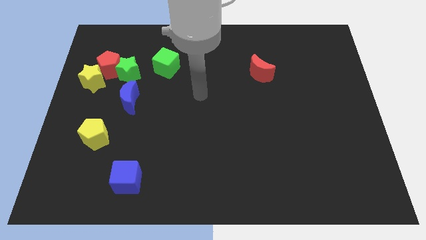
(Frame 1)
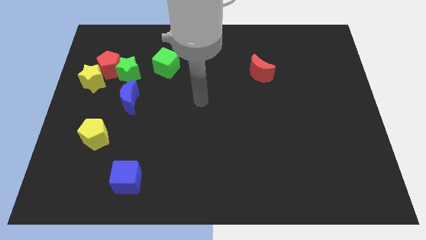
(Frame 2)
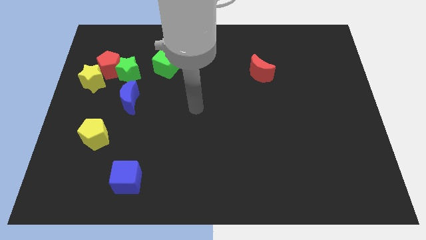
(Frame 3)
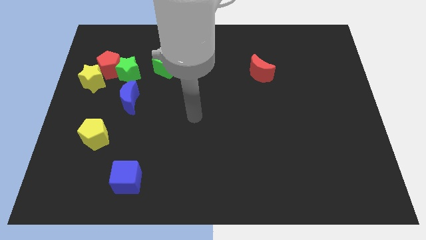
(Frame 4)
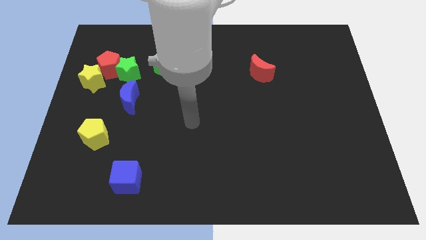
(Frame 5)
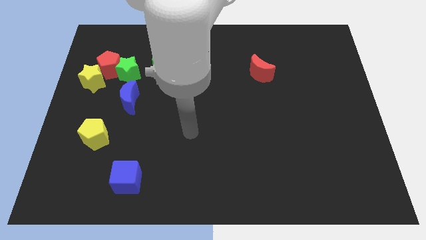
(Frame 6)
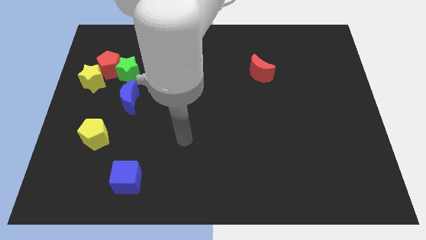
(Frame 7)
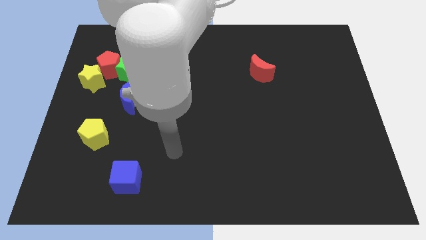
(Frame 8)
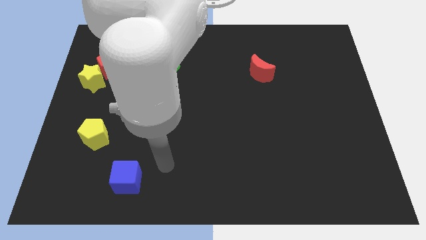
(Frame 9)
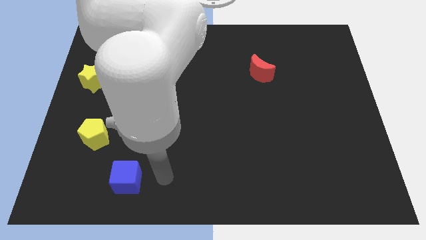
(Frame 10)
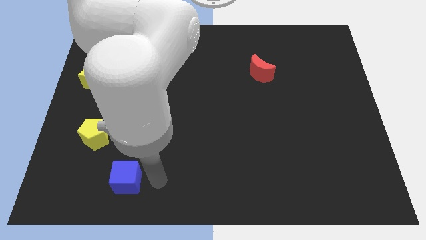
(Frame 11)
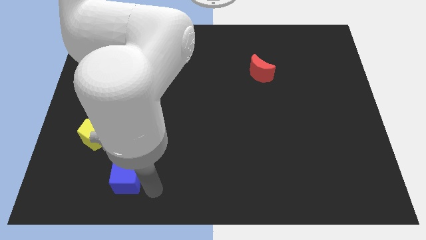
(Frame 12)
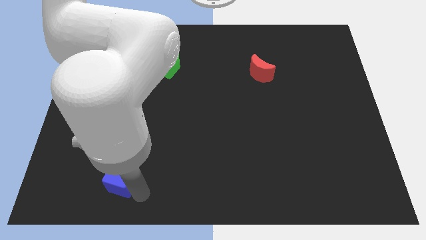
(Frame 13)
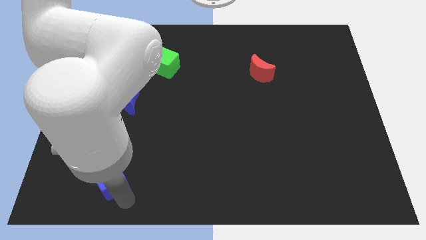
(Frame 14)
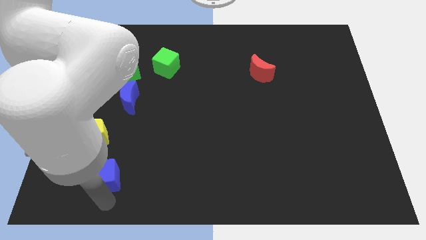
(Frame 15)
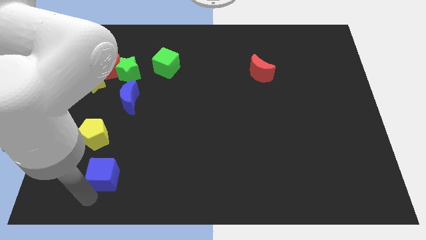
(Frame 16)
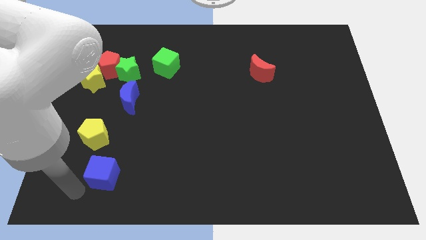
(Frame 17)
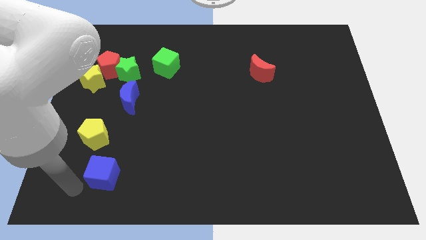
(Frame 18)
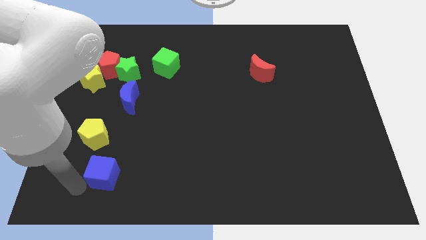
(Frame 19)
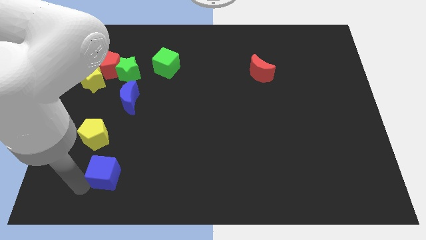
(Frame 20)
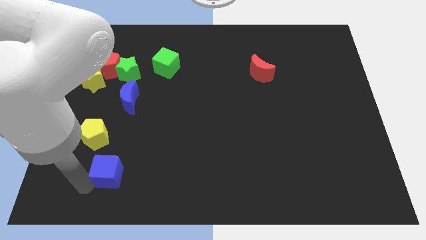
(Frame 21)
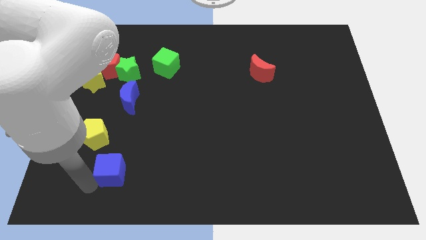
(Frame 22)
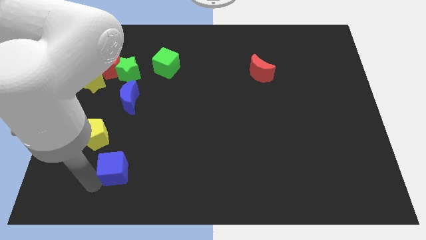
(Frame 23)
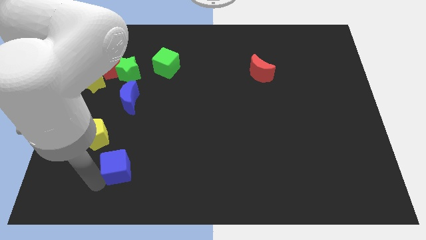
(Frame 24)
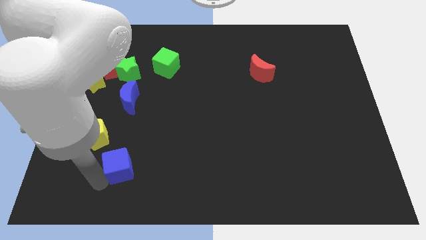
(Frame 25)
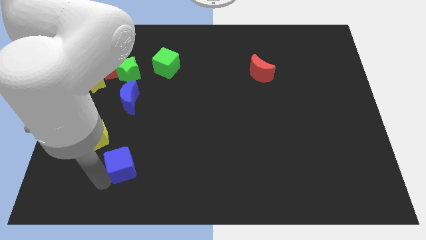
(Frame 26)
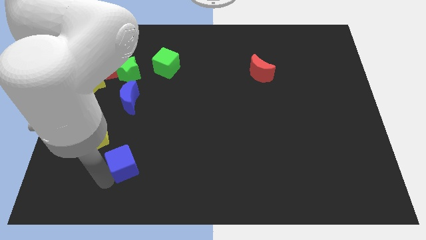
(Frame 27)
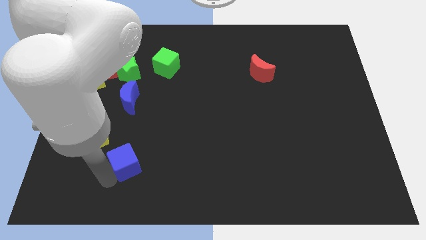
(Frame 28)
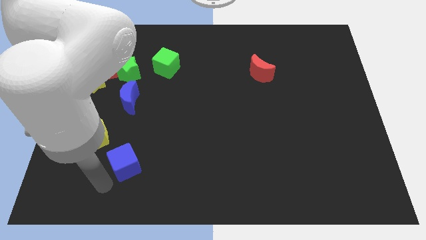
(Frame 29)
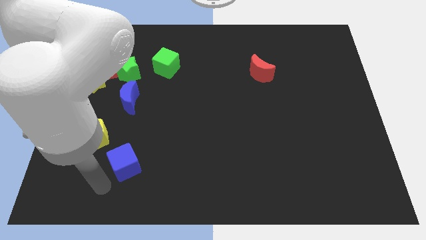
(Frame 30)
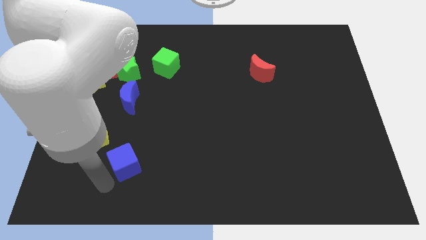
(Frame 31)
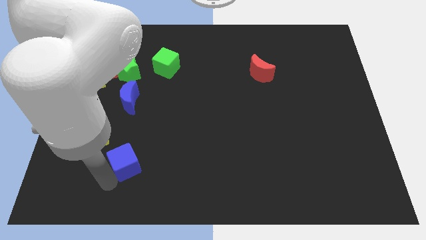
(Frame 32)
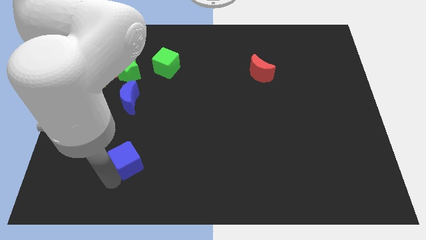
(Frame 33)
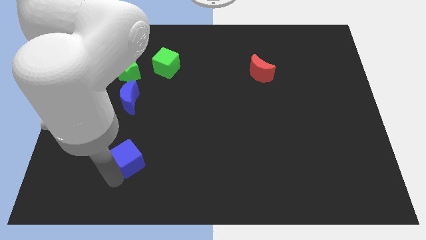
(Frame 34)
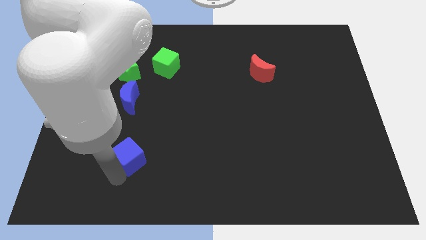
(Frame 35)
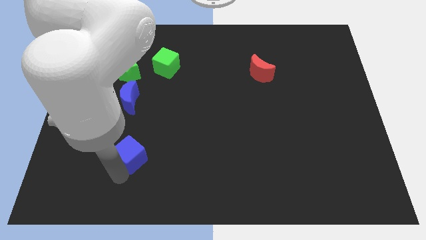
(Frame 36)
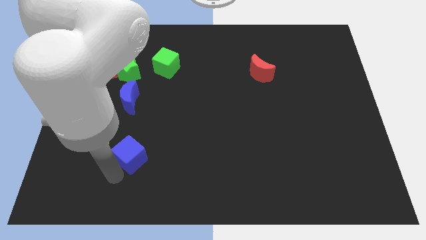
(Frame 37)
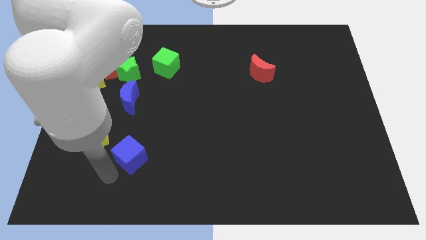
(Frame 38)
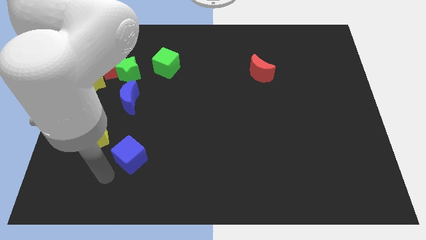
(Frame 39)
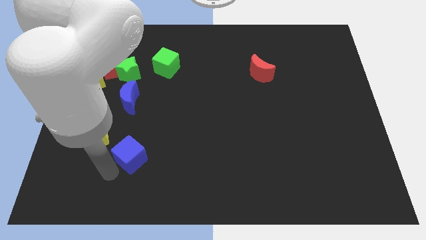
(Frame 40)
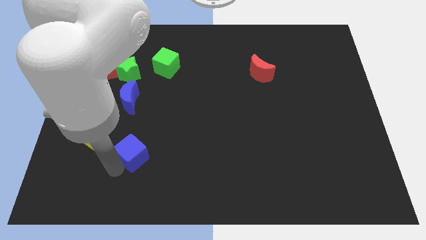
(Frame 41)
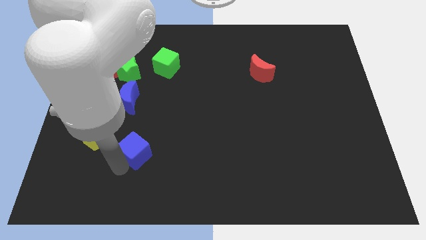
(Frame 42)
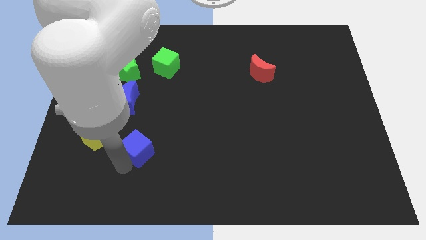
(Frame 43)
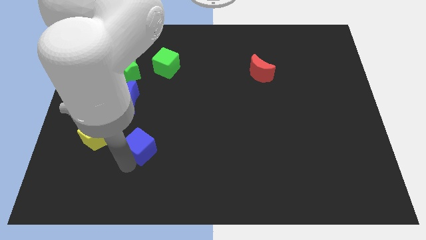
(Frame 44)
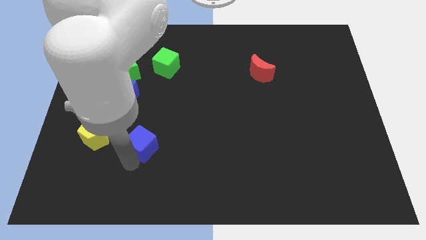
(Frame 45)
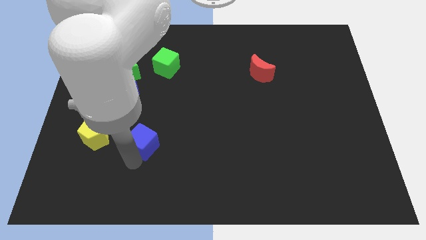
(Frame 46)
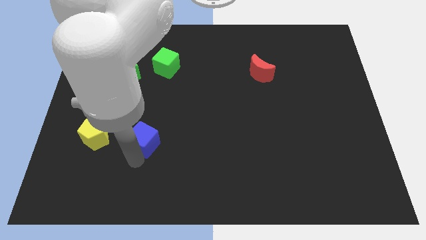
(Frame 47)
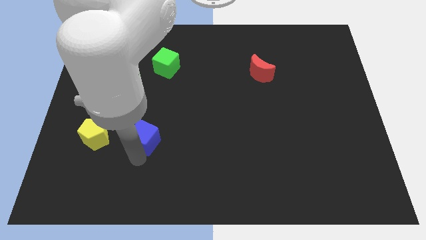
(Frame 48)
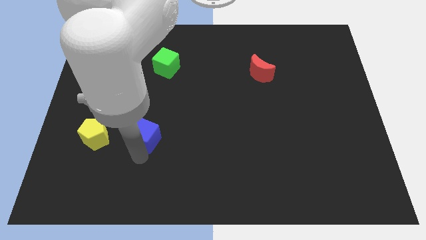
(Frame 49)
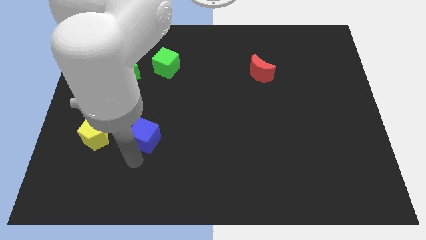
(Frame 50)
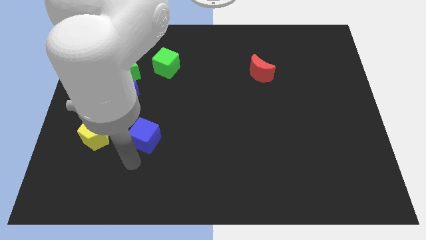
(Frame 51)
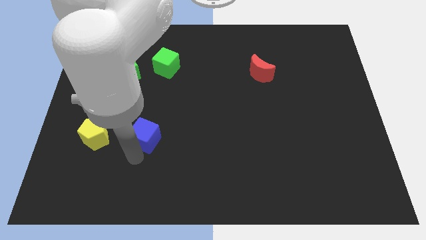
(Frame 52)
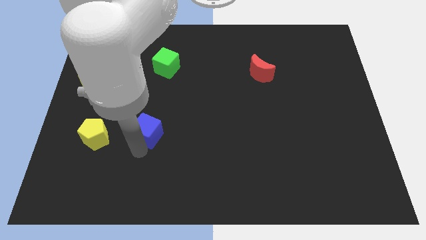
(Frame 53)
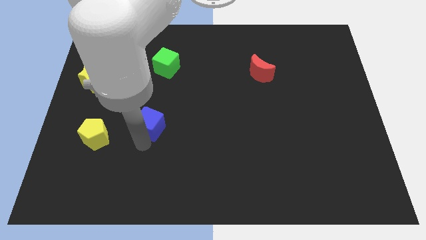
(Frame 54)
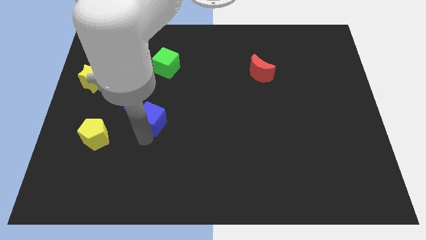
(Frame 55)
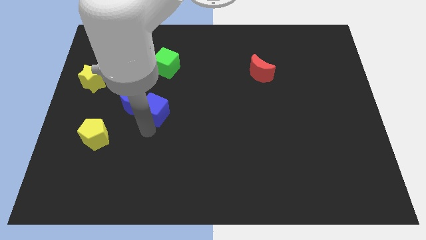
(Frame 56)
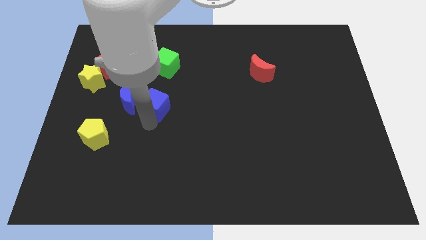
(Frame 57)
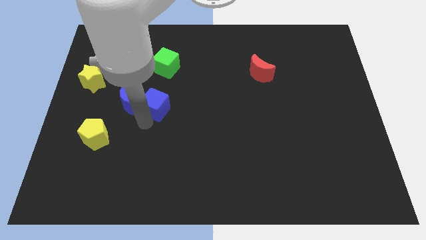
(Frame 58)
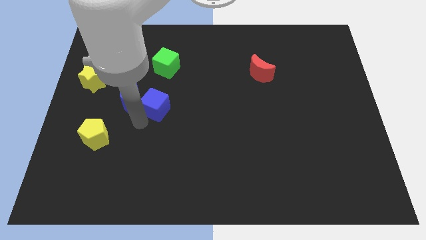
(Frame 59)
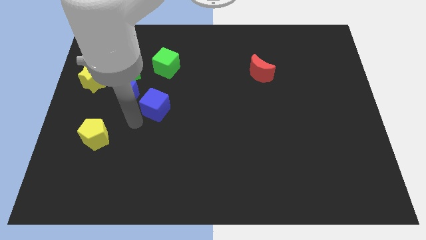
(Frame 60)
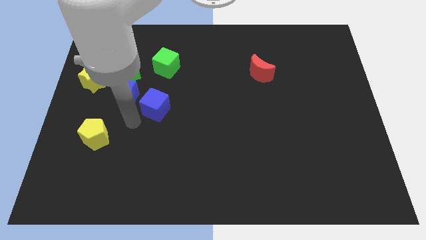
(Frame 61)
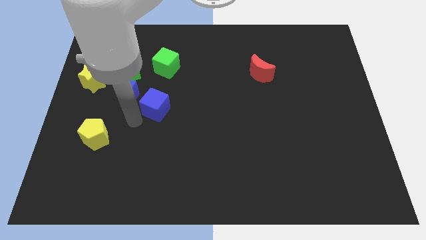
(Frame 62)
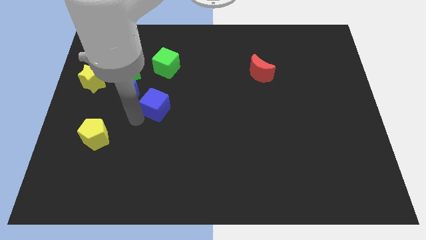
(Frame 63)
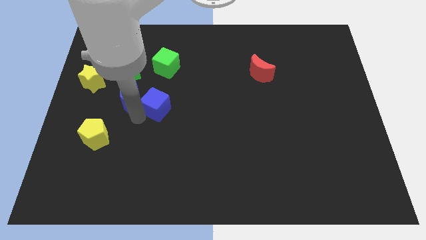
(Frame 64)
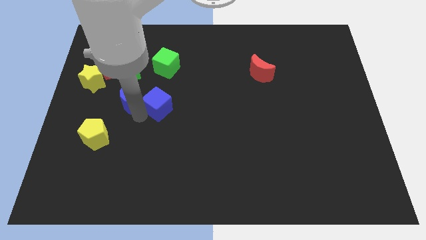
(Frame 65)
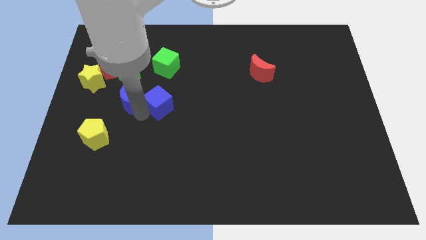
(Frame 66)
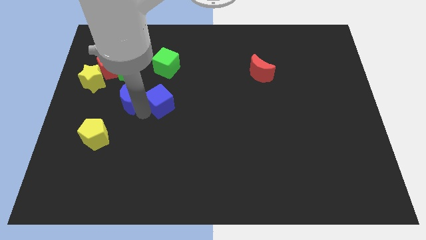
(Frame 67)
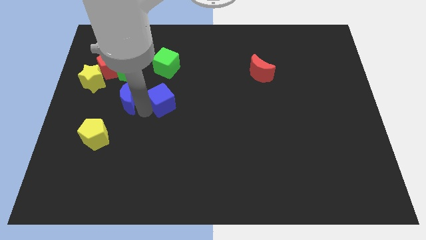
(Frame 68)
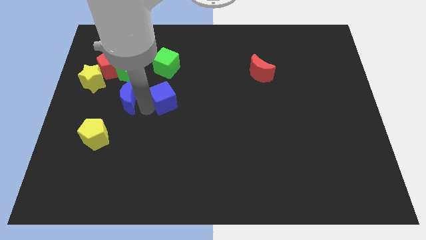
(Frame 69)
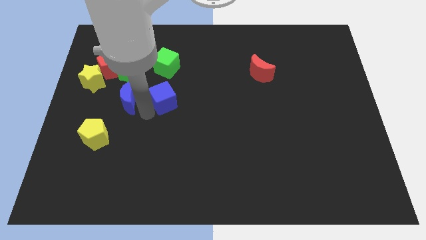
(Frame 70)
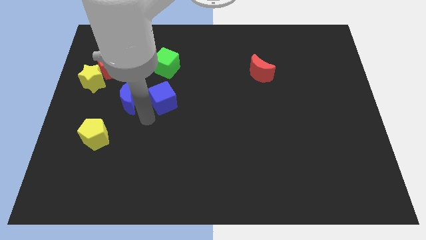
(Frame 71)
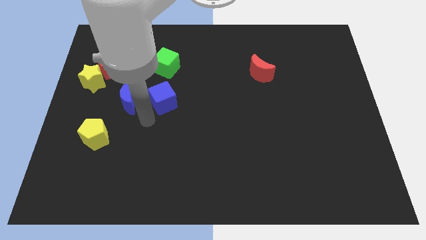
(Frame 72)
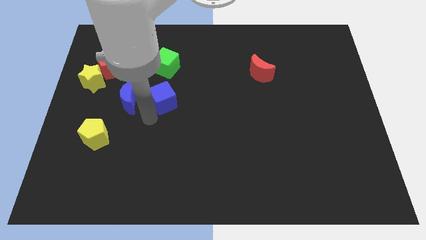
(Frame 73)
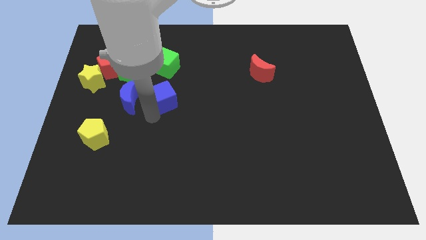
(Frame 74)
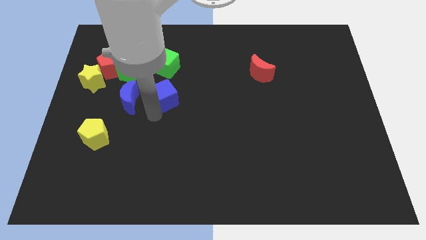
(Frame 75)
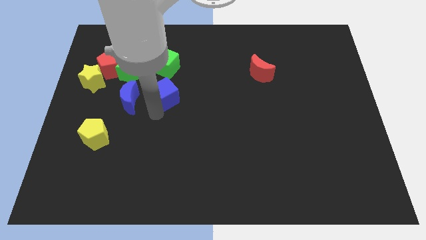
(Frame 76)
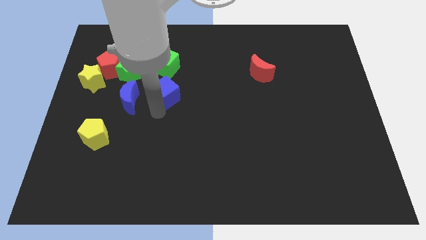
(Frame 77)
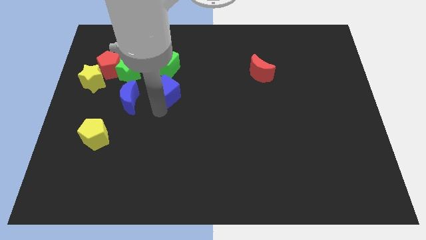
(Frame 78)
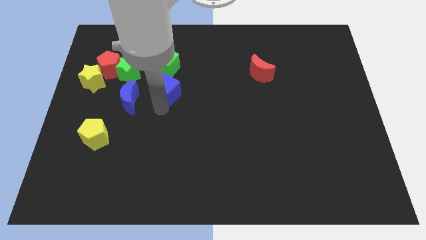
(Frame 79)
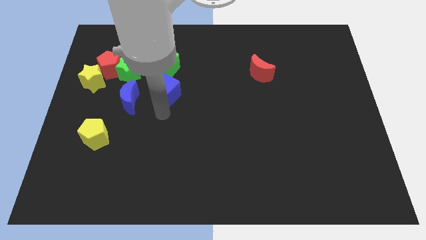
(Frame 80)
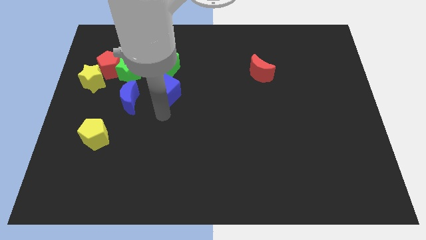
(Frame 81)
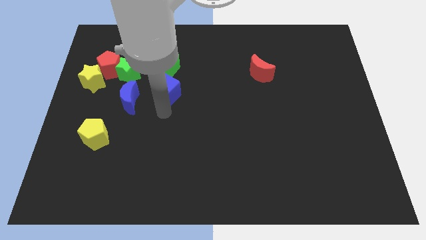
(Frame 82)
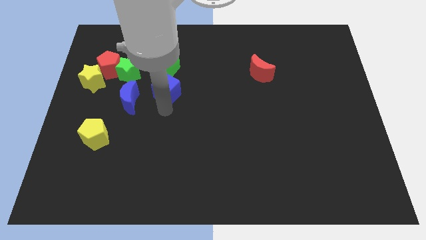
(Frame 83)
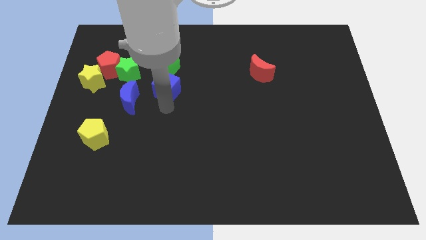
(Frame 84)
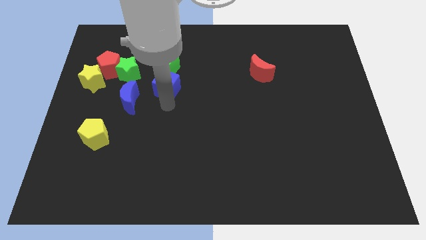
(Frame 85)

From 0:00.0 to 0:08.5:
move the blue cube to the right side of the green star
